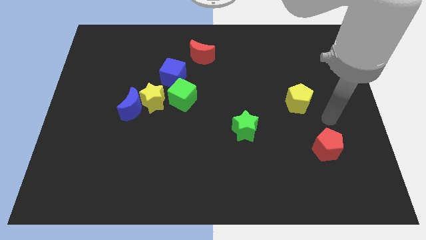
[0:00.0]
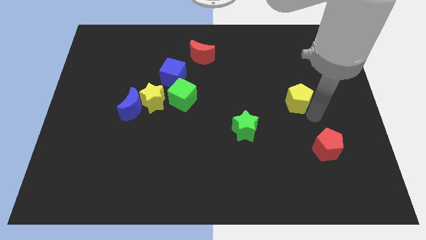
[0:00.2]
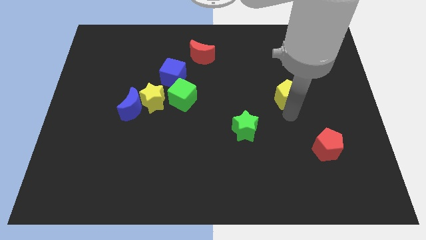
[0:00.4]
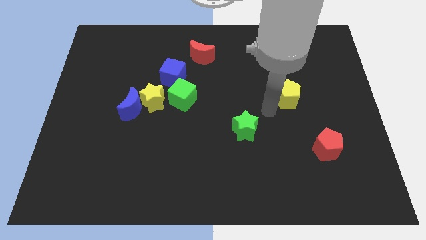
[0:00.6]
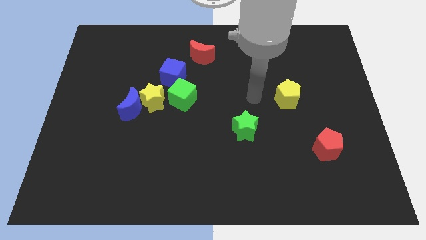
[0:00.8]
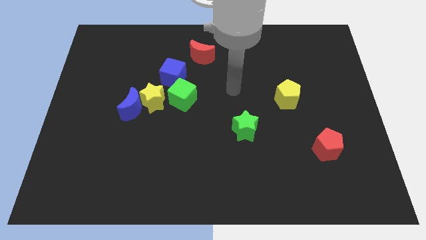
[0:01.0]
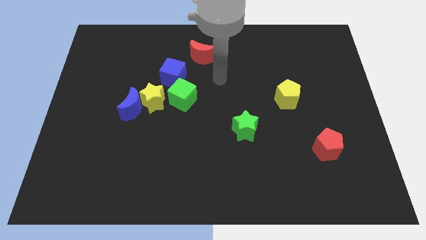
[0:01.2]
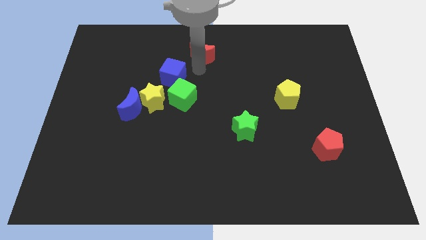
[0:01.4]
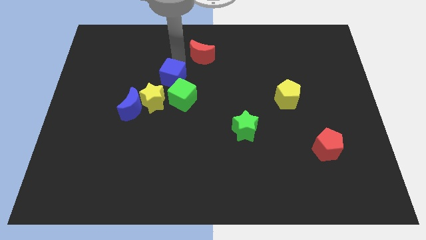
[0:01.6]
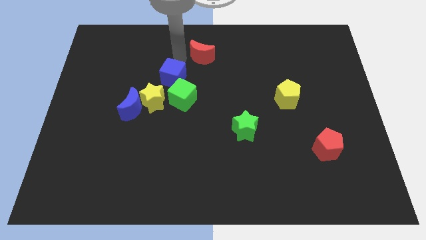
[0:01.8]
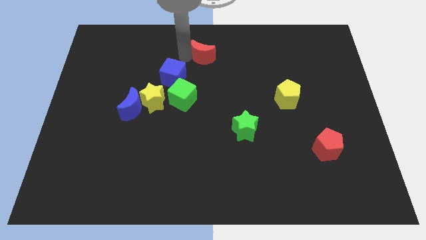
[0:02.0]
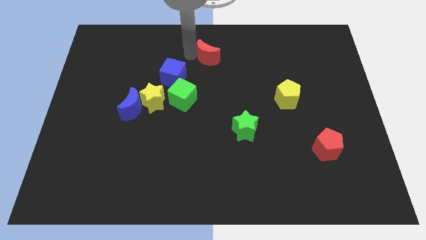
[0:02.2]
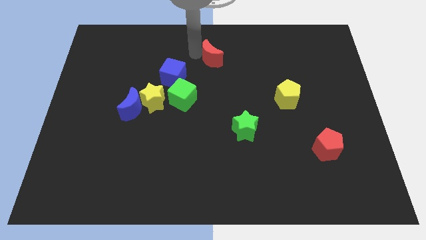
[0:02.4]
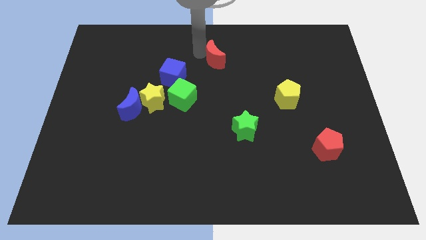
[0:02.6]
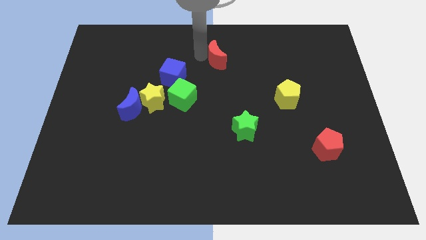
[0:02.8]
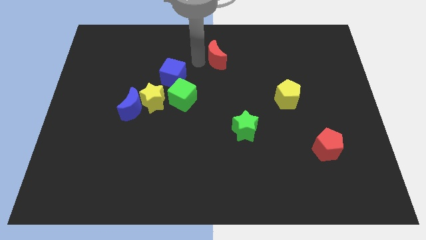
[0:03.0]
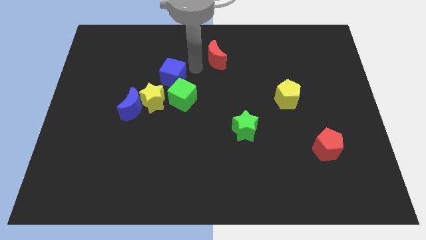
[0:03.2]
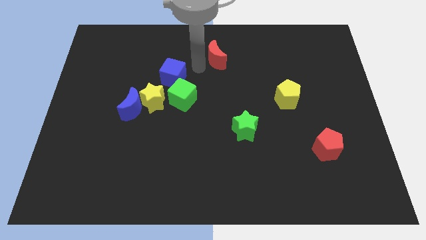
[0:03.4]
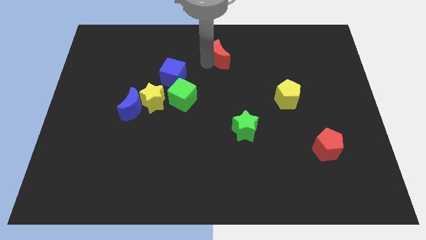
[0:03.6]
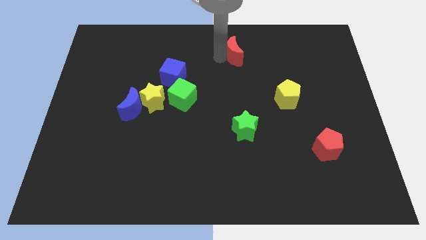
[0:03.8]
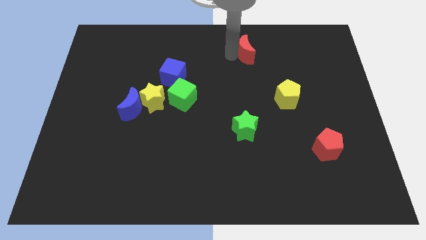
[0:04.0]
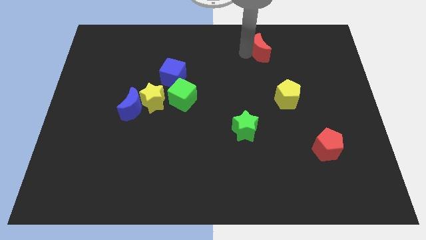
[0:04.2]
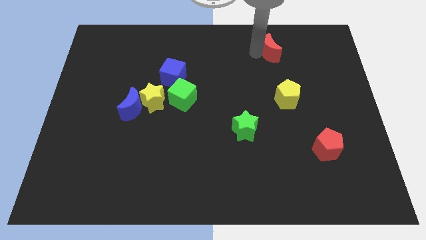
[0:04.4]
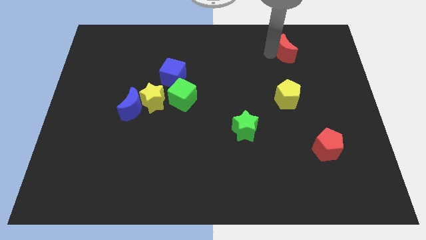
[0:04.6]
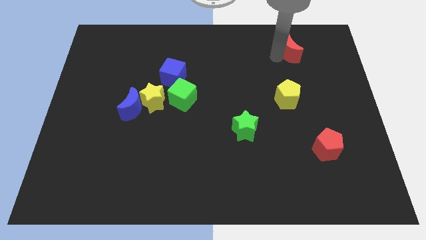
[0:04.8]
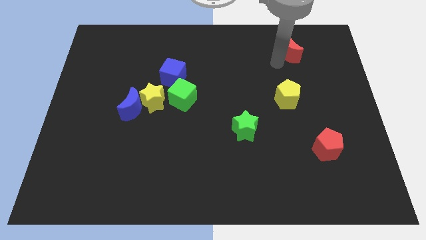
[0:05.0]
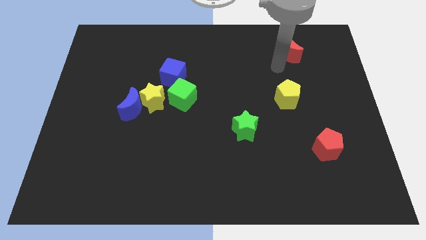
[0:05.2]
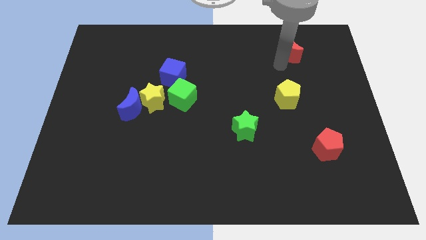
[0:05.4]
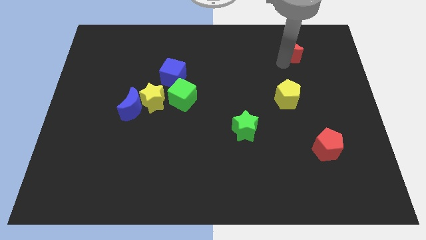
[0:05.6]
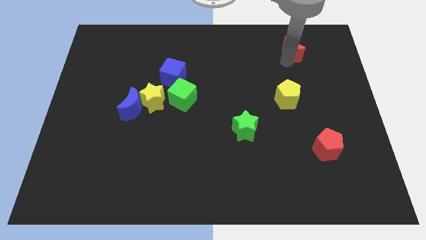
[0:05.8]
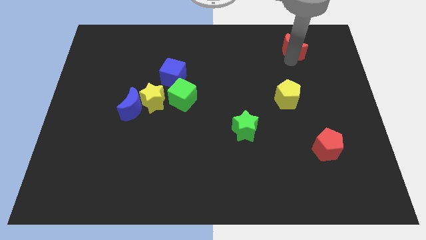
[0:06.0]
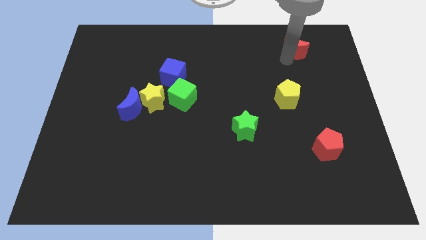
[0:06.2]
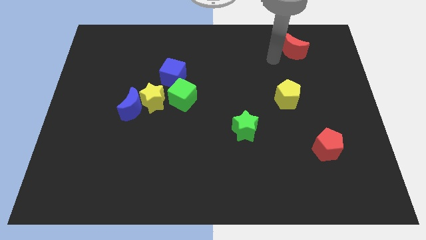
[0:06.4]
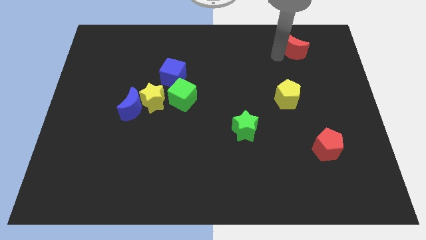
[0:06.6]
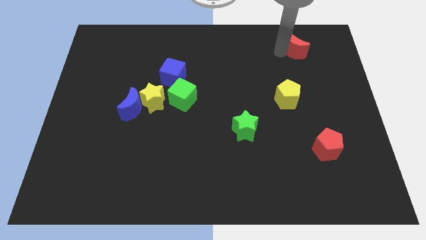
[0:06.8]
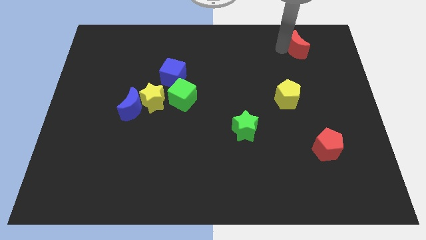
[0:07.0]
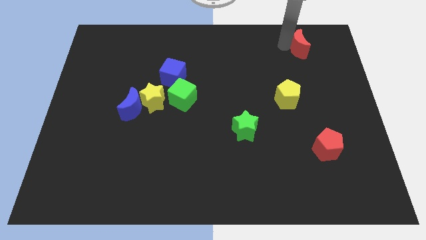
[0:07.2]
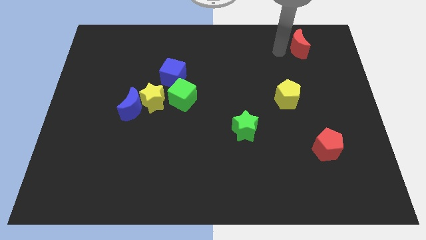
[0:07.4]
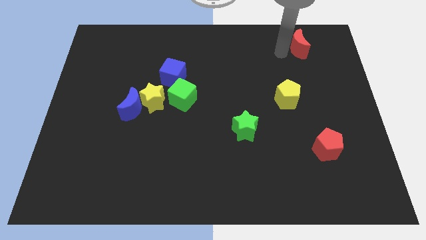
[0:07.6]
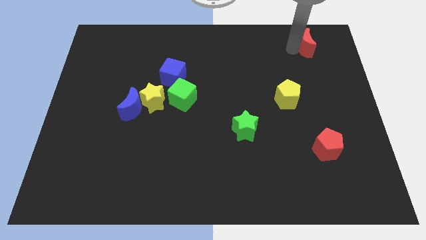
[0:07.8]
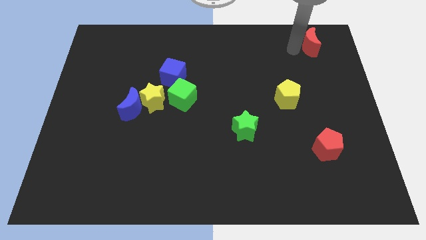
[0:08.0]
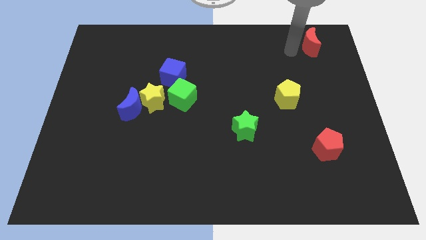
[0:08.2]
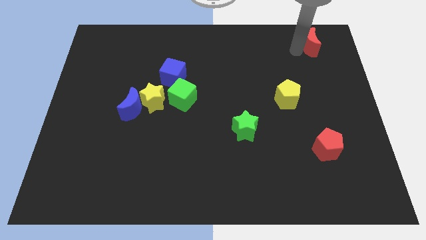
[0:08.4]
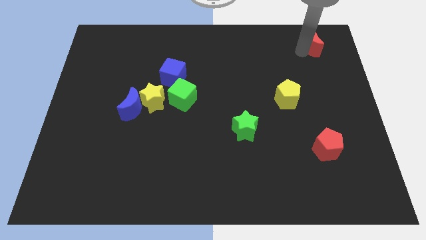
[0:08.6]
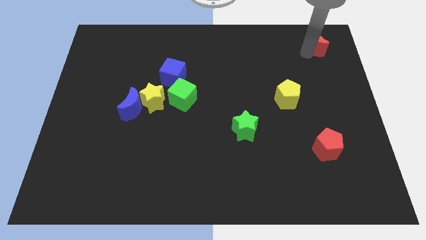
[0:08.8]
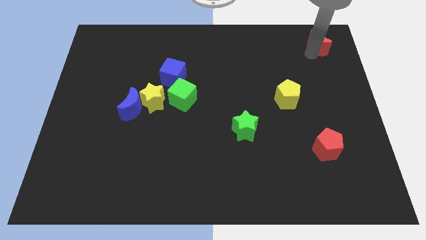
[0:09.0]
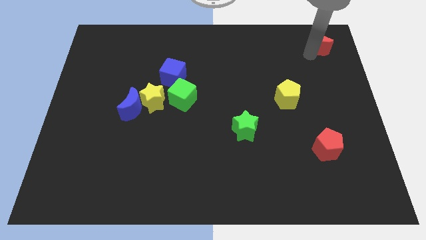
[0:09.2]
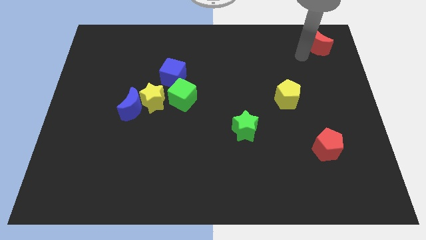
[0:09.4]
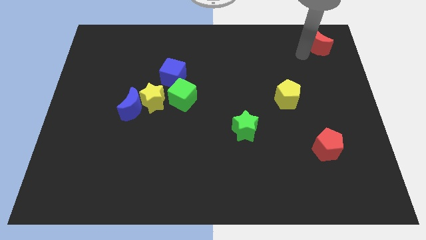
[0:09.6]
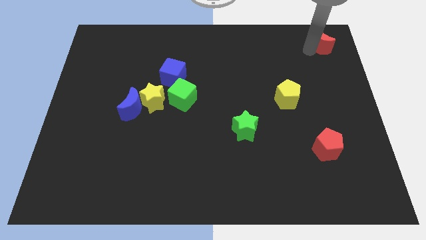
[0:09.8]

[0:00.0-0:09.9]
move the red moon to the top right of the board

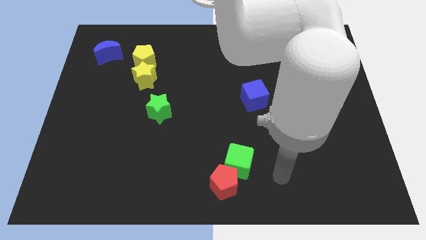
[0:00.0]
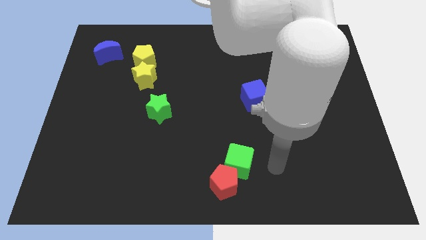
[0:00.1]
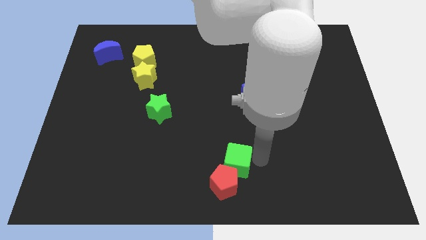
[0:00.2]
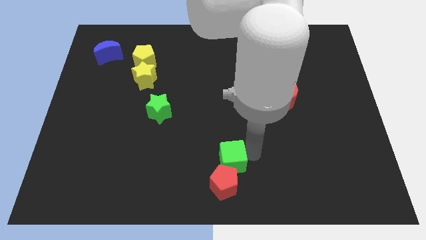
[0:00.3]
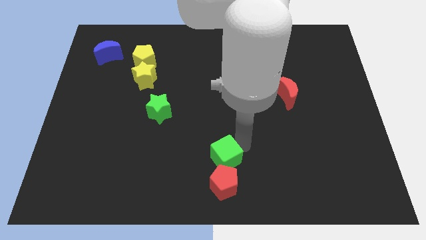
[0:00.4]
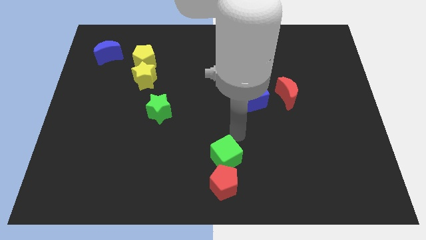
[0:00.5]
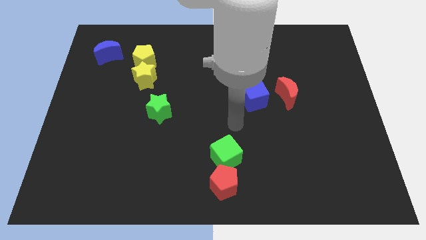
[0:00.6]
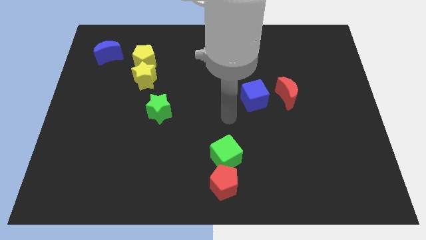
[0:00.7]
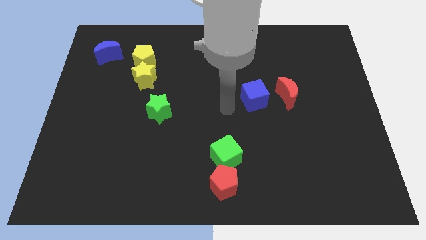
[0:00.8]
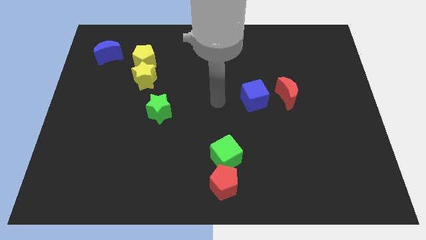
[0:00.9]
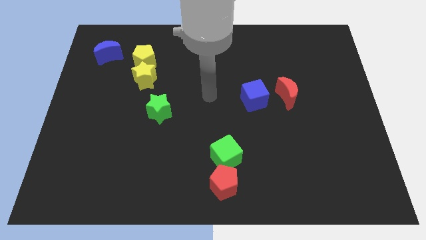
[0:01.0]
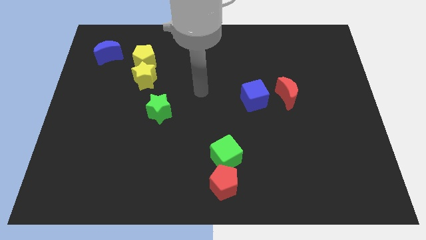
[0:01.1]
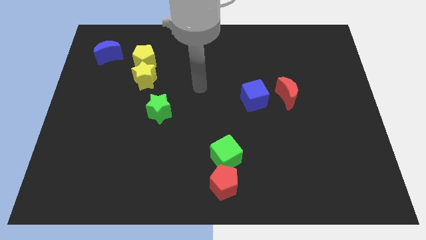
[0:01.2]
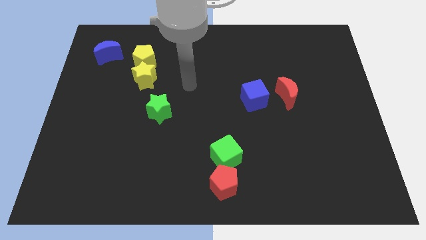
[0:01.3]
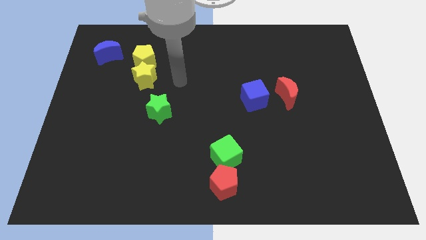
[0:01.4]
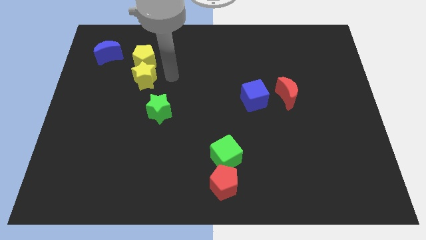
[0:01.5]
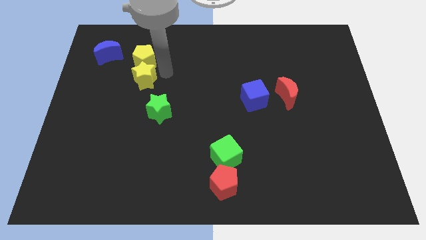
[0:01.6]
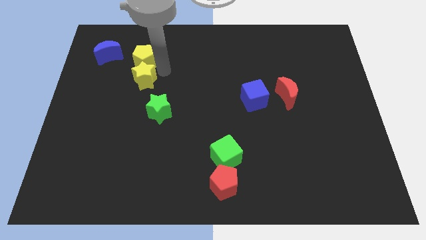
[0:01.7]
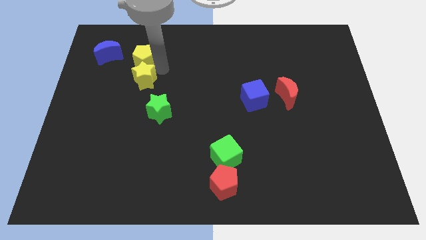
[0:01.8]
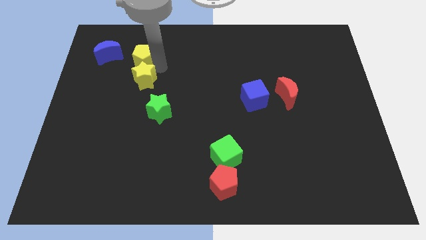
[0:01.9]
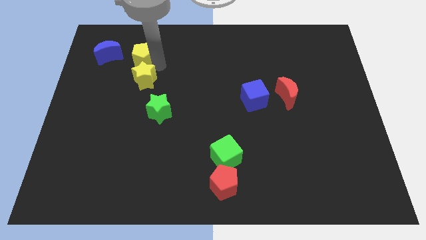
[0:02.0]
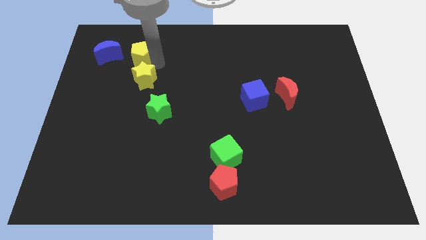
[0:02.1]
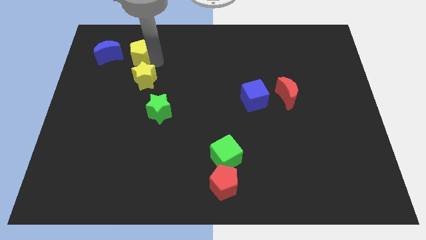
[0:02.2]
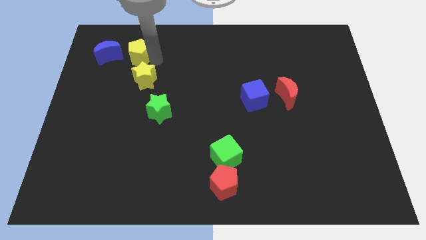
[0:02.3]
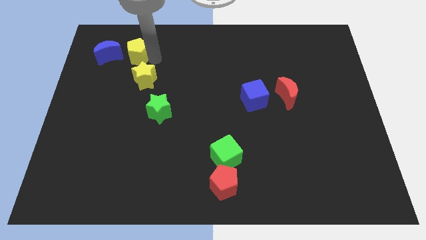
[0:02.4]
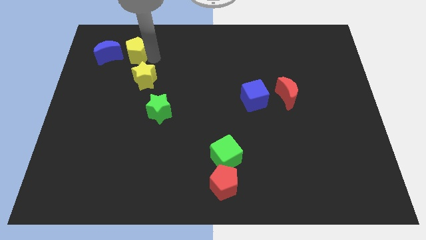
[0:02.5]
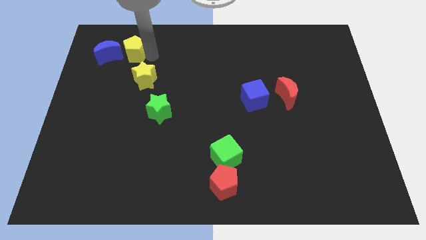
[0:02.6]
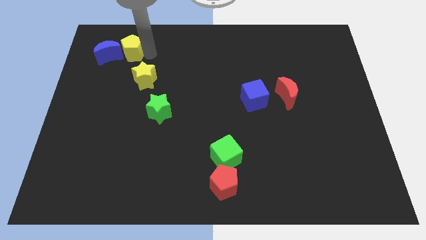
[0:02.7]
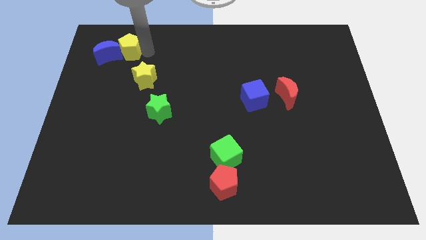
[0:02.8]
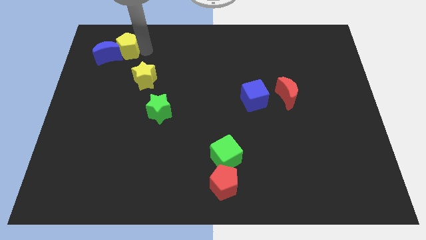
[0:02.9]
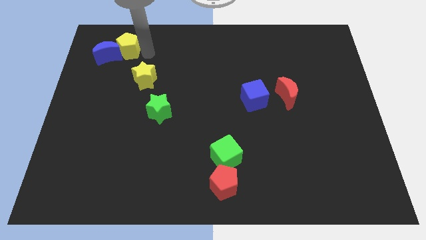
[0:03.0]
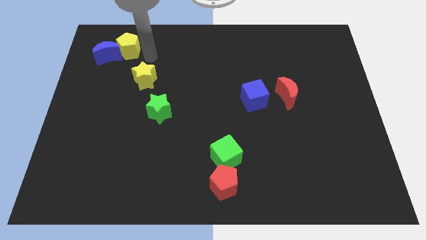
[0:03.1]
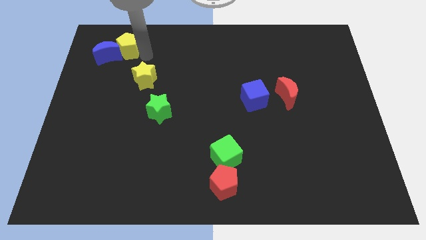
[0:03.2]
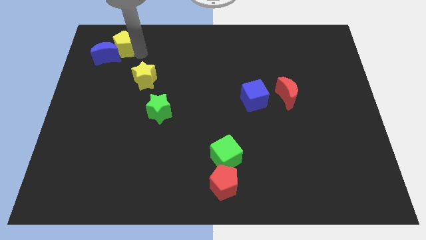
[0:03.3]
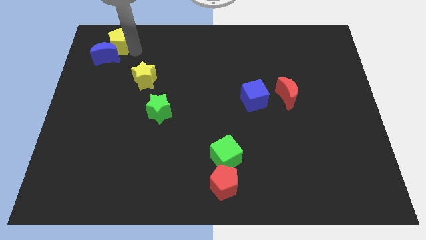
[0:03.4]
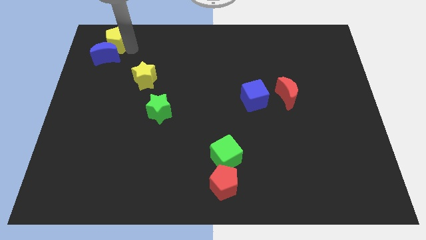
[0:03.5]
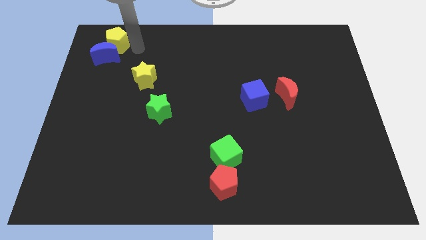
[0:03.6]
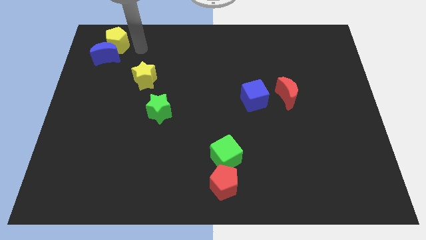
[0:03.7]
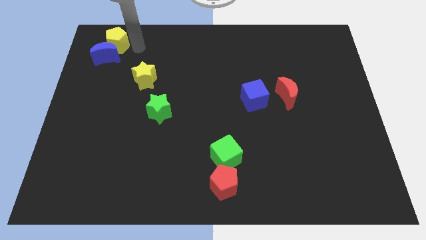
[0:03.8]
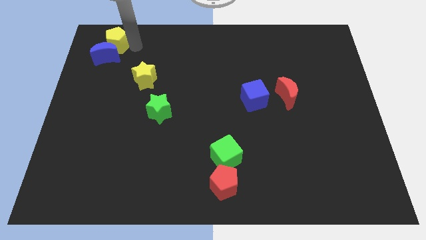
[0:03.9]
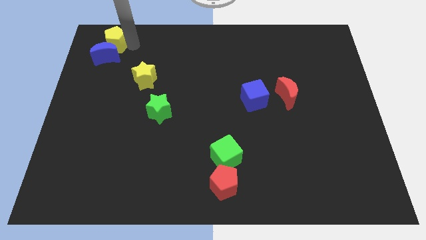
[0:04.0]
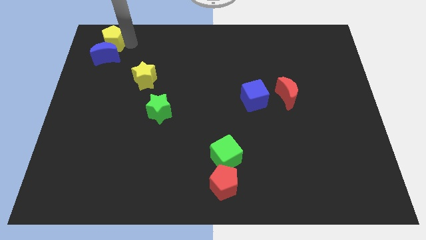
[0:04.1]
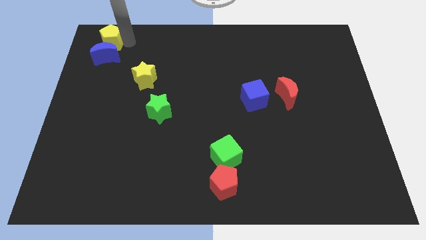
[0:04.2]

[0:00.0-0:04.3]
move the yellow pentagon to the upper left corner
